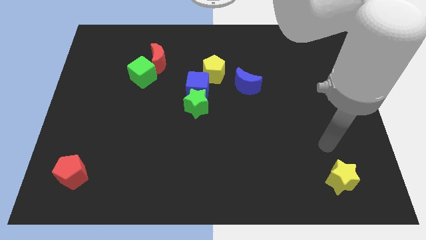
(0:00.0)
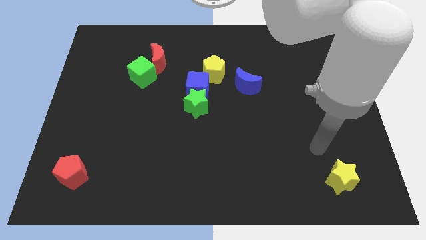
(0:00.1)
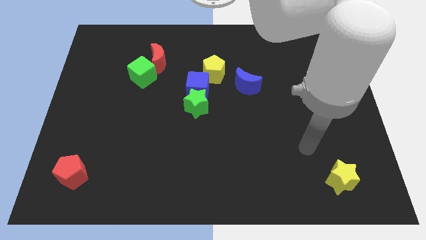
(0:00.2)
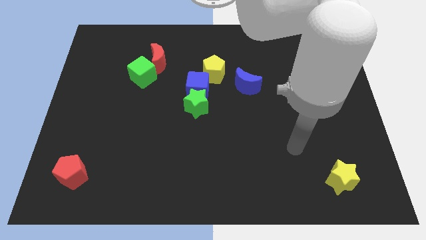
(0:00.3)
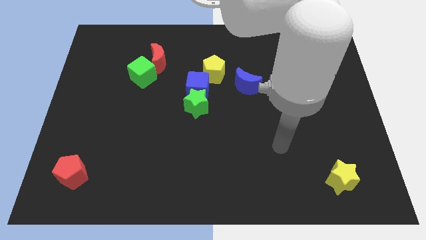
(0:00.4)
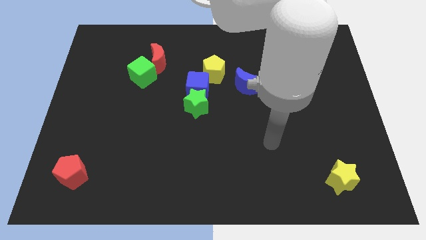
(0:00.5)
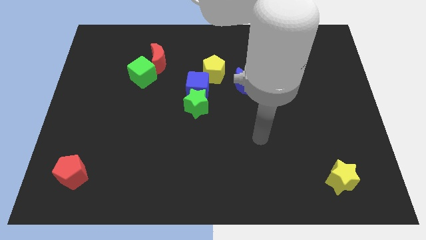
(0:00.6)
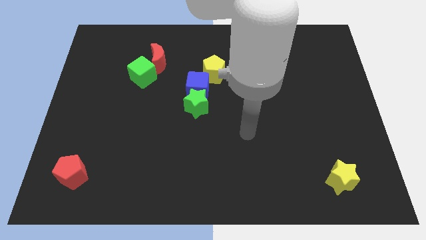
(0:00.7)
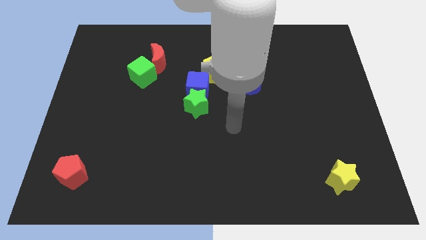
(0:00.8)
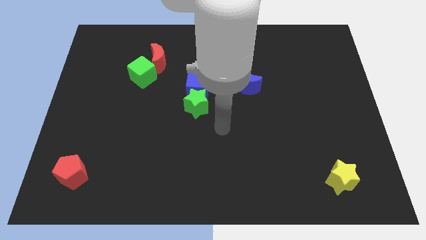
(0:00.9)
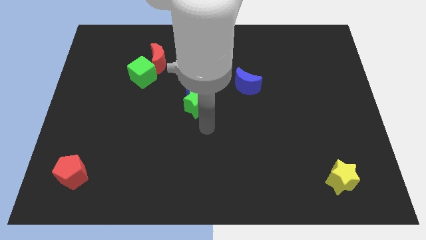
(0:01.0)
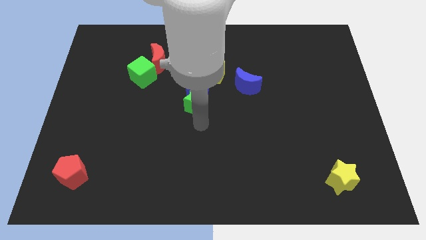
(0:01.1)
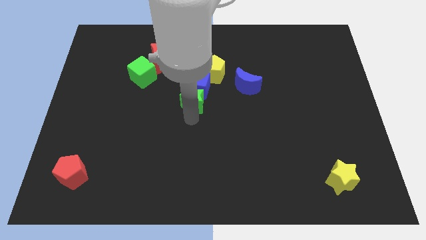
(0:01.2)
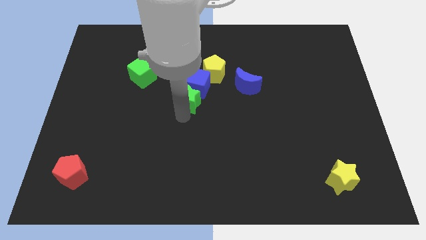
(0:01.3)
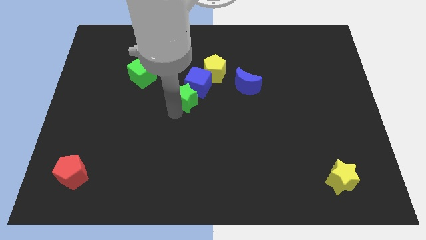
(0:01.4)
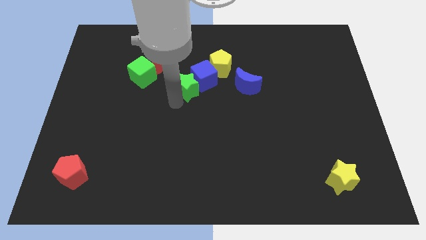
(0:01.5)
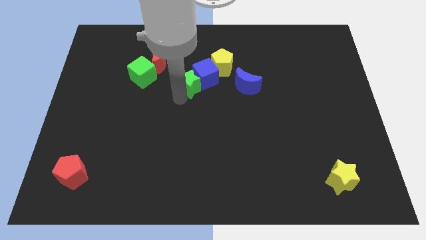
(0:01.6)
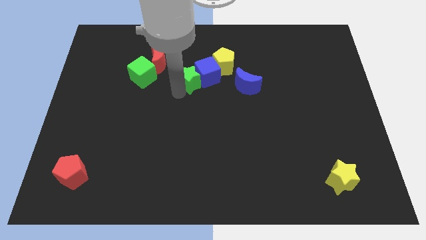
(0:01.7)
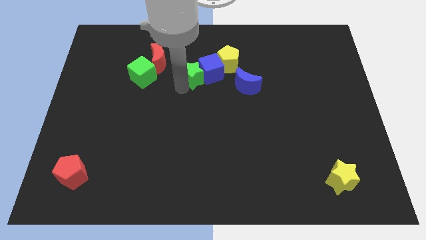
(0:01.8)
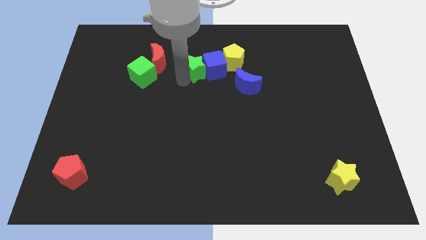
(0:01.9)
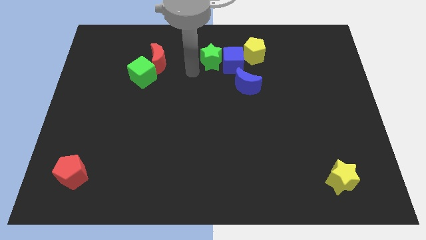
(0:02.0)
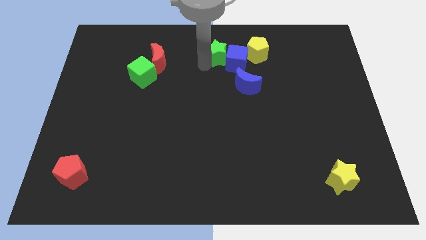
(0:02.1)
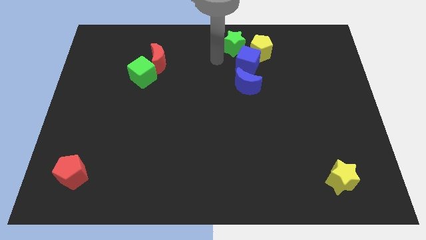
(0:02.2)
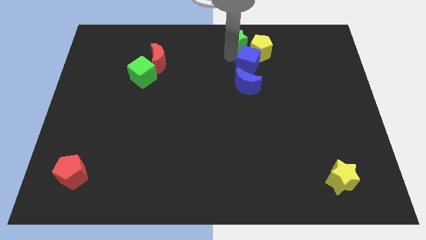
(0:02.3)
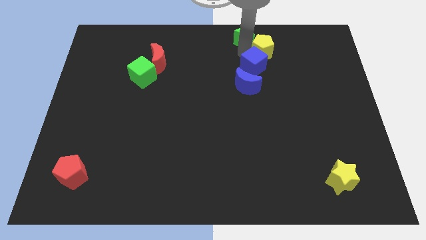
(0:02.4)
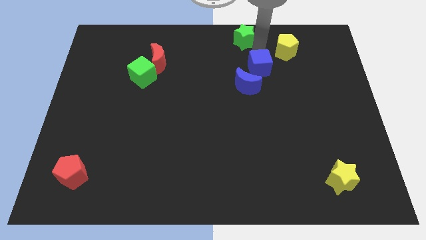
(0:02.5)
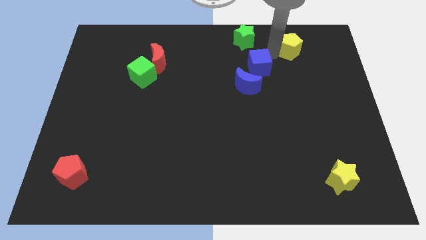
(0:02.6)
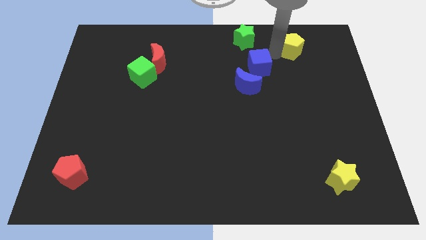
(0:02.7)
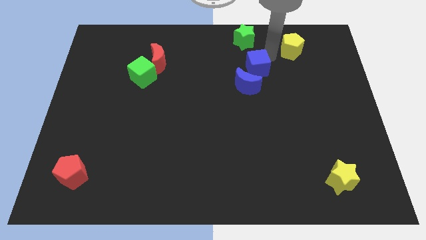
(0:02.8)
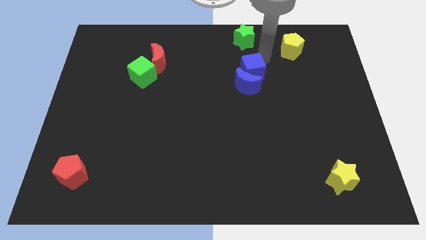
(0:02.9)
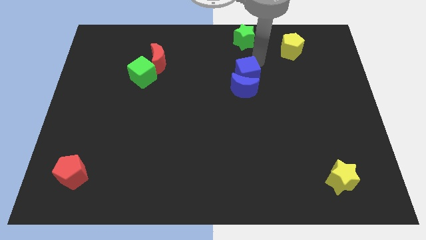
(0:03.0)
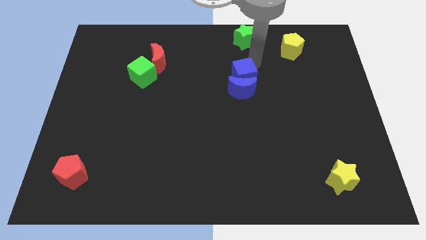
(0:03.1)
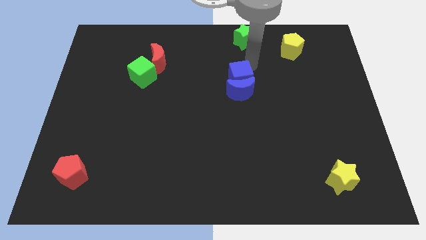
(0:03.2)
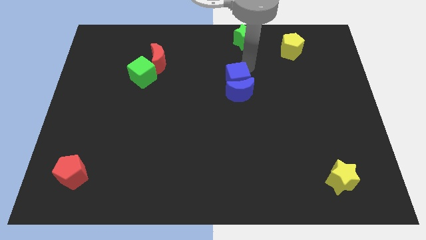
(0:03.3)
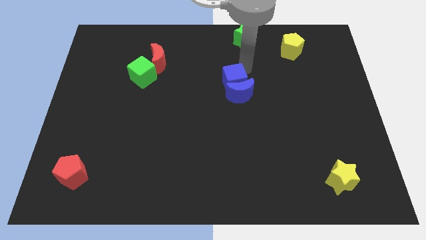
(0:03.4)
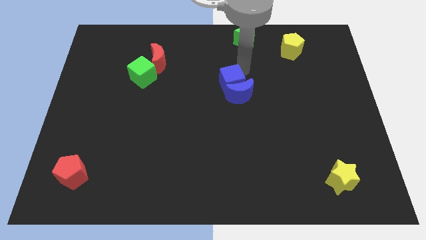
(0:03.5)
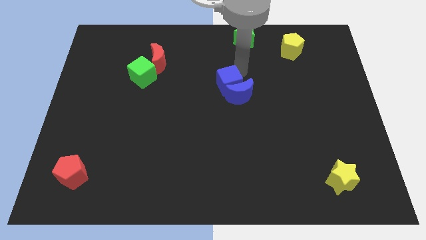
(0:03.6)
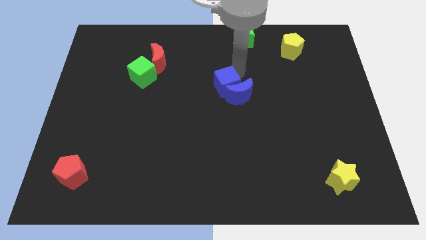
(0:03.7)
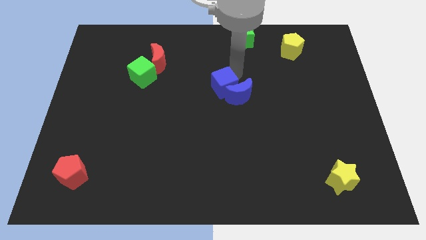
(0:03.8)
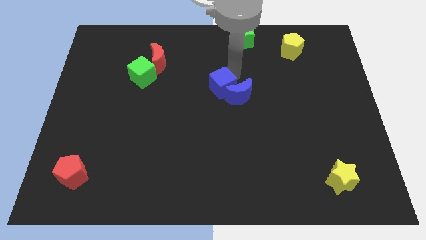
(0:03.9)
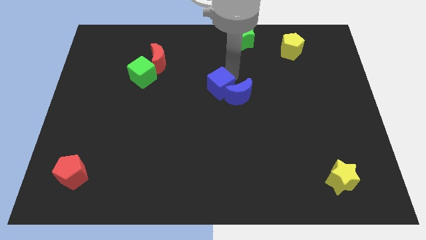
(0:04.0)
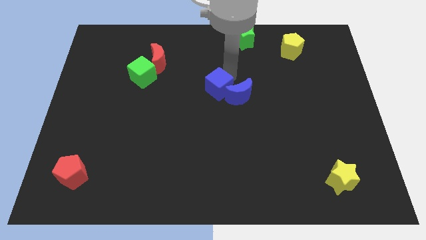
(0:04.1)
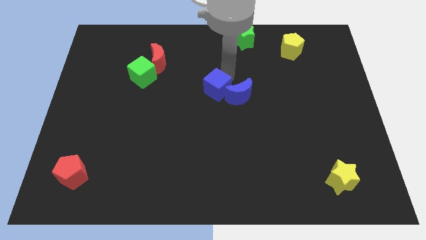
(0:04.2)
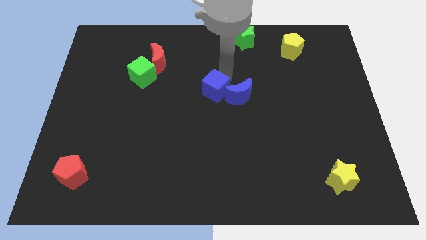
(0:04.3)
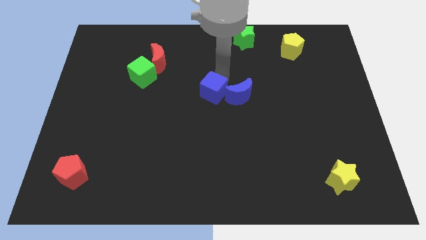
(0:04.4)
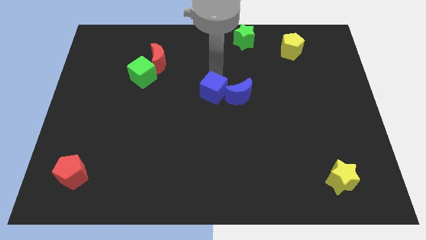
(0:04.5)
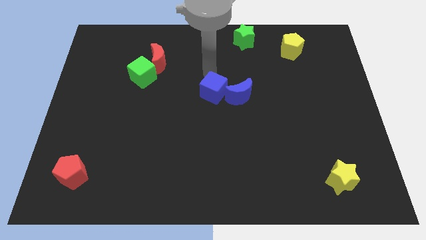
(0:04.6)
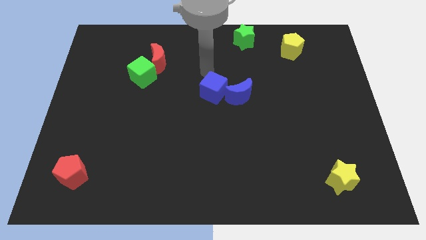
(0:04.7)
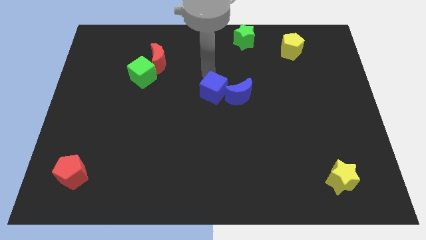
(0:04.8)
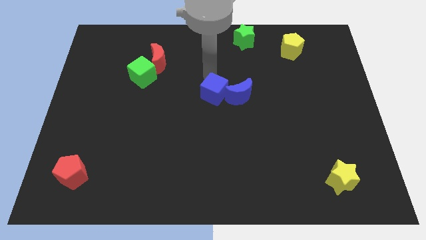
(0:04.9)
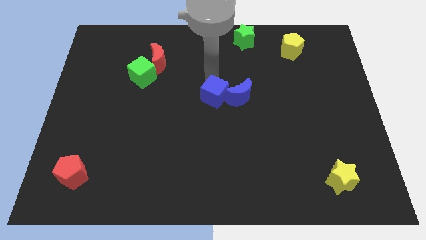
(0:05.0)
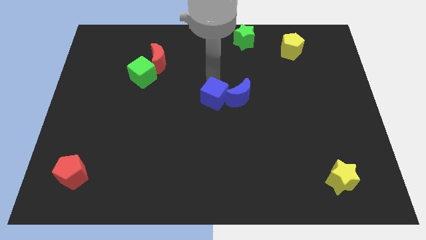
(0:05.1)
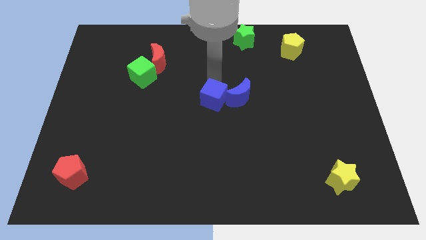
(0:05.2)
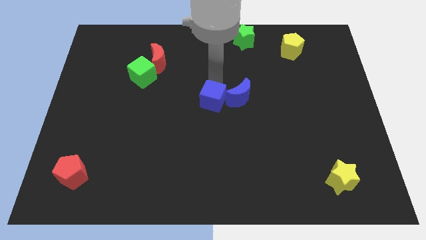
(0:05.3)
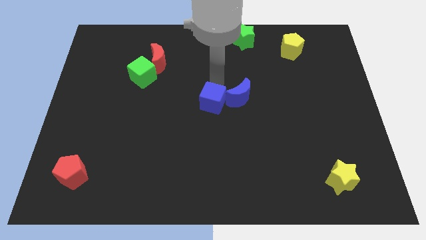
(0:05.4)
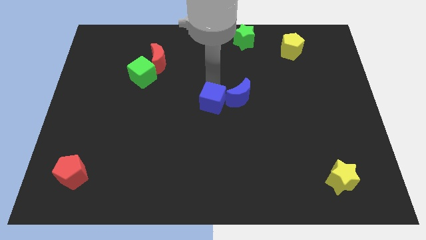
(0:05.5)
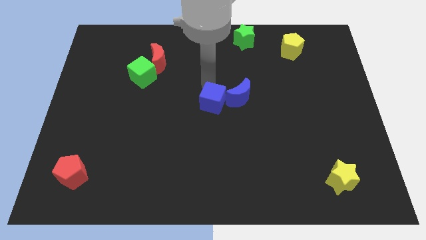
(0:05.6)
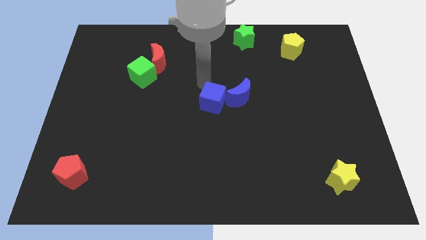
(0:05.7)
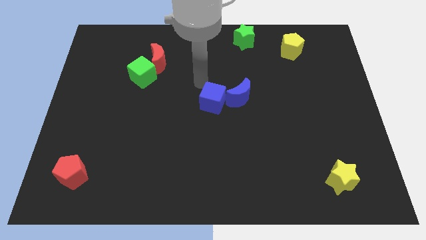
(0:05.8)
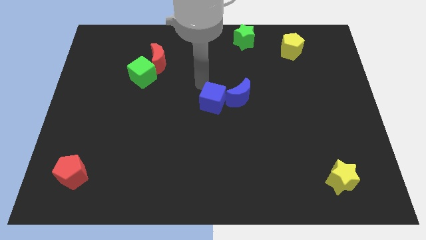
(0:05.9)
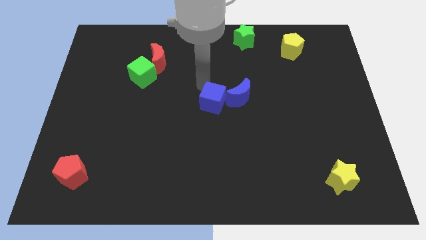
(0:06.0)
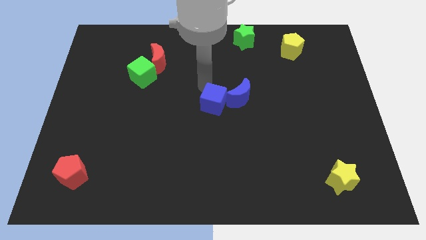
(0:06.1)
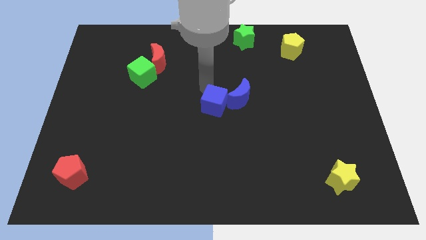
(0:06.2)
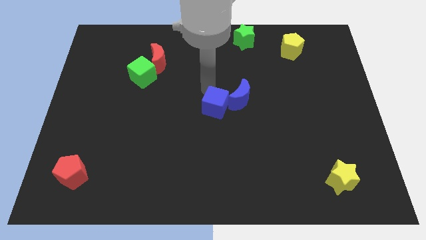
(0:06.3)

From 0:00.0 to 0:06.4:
slide the blue cube diagonally downwards and right somewhat

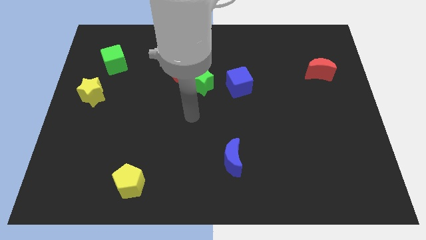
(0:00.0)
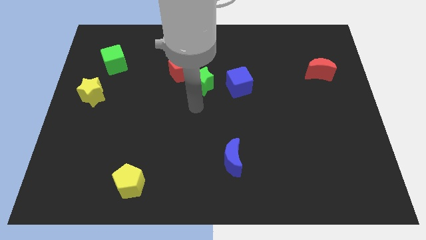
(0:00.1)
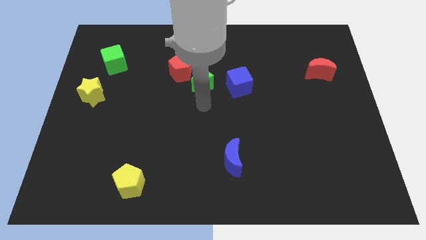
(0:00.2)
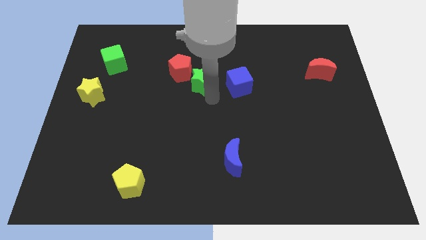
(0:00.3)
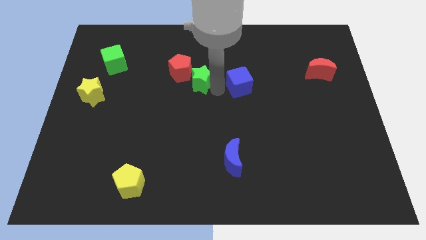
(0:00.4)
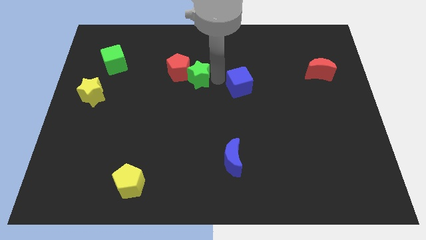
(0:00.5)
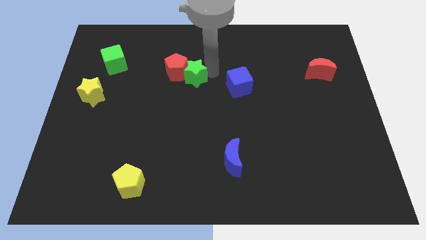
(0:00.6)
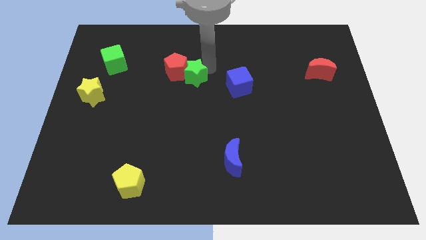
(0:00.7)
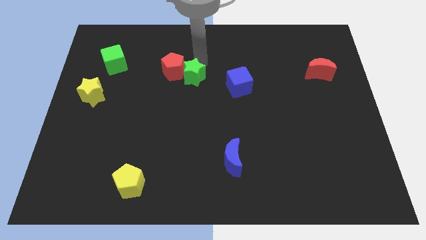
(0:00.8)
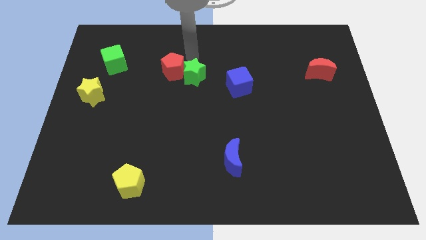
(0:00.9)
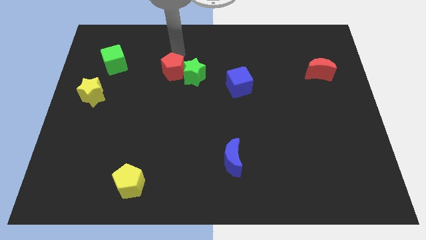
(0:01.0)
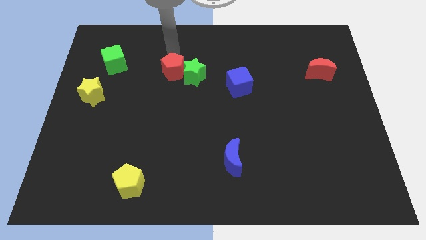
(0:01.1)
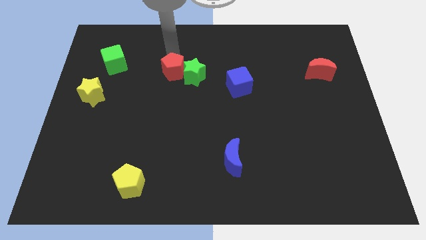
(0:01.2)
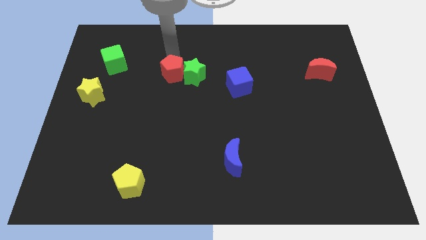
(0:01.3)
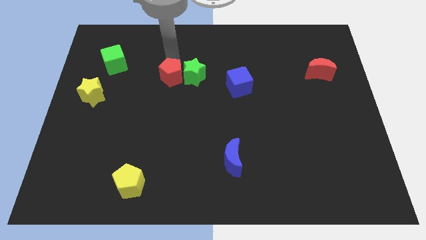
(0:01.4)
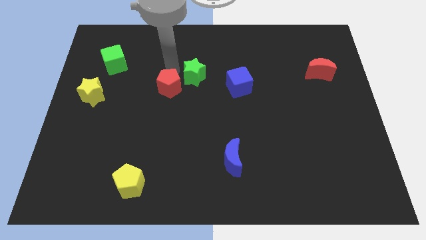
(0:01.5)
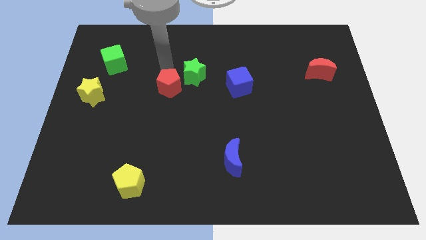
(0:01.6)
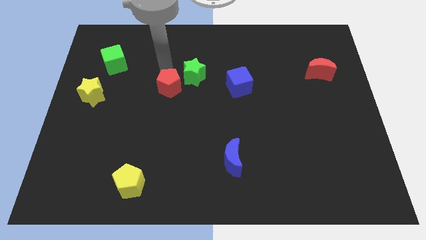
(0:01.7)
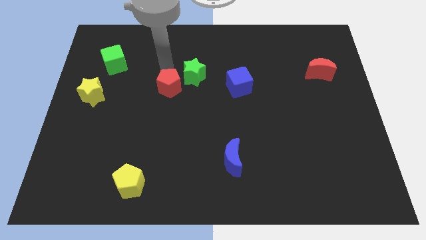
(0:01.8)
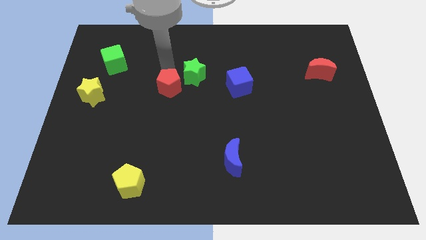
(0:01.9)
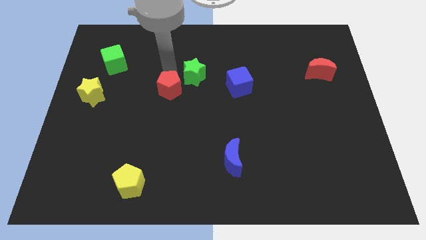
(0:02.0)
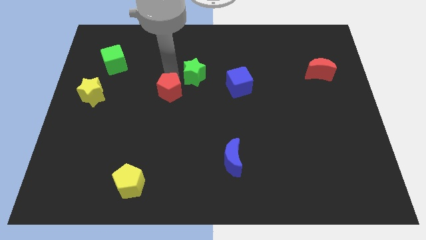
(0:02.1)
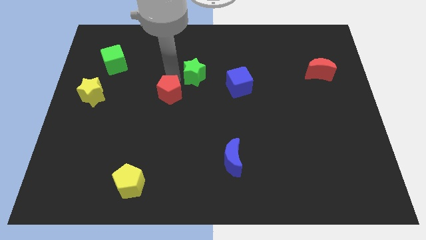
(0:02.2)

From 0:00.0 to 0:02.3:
move the red pentagon somewhat downwards
